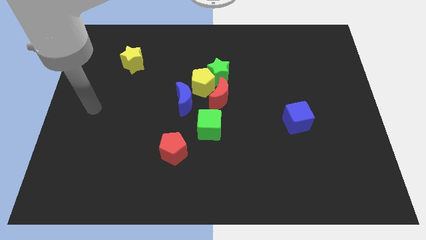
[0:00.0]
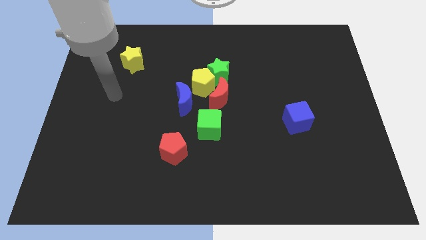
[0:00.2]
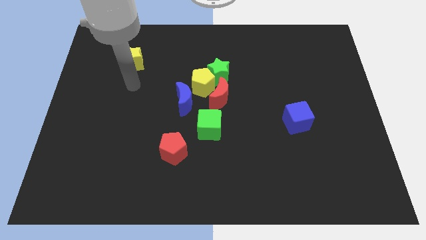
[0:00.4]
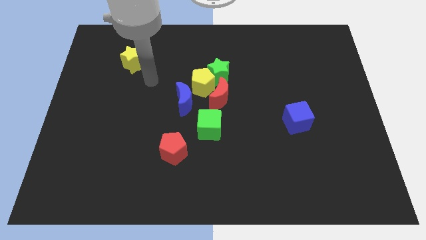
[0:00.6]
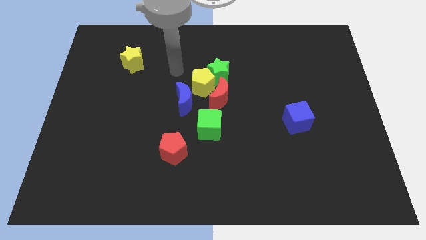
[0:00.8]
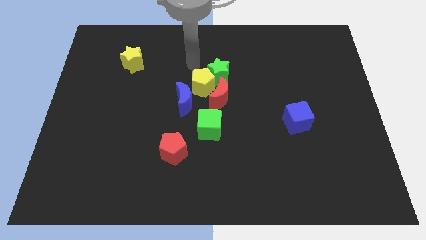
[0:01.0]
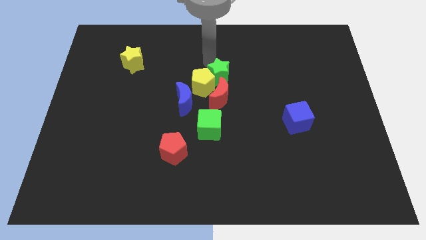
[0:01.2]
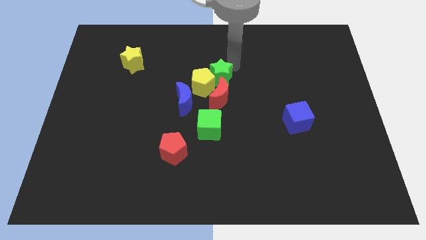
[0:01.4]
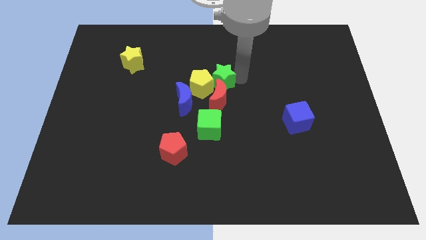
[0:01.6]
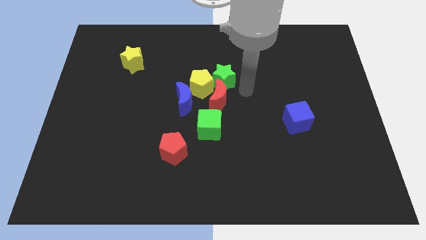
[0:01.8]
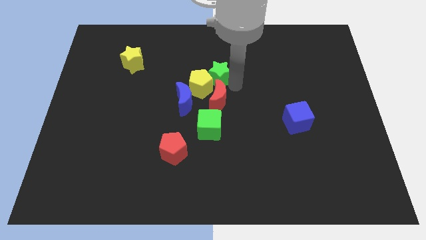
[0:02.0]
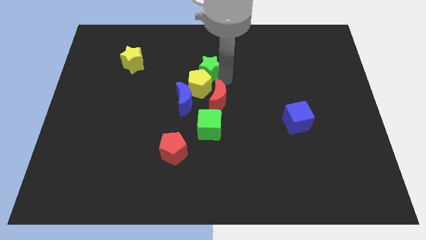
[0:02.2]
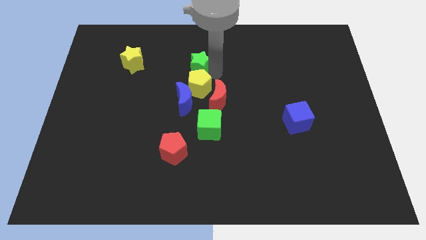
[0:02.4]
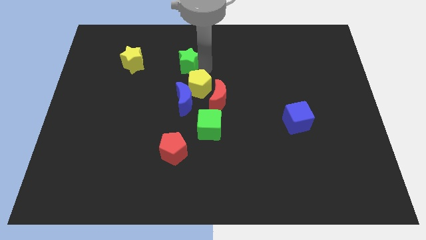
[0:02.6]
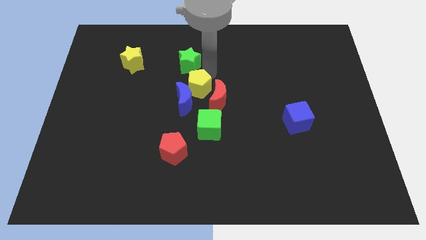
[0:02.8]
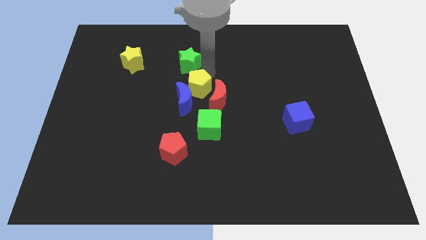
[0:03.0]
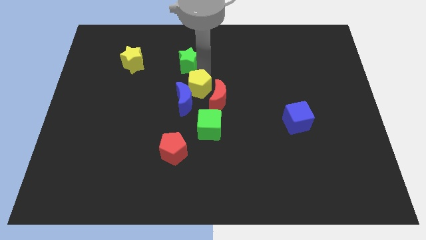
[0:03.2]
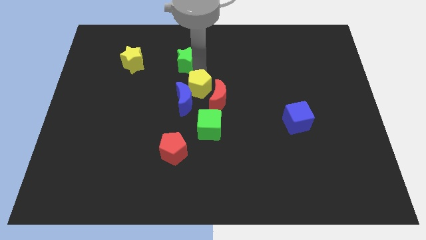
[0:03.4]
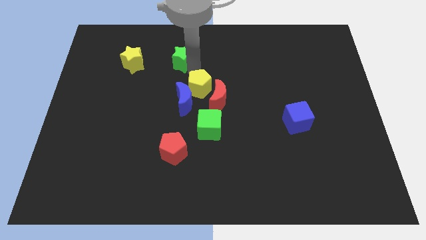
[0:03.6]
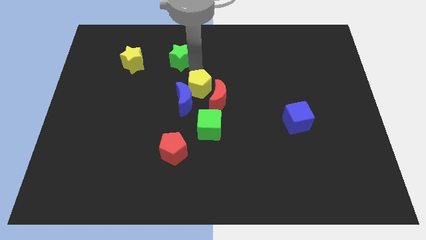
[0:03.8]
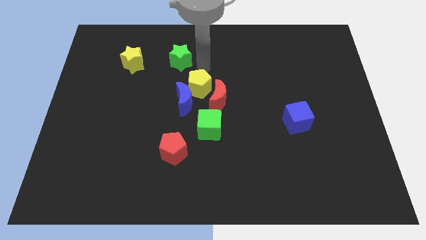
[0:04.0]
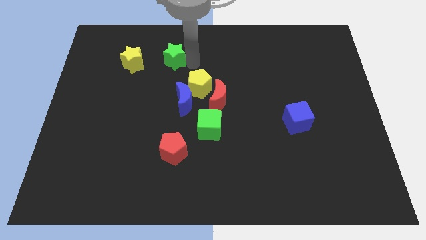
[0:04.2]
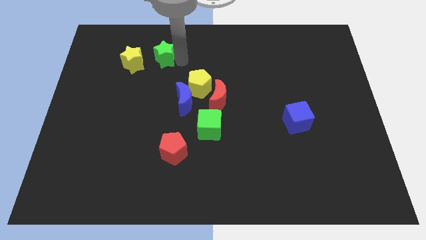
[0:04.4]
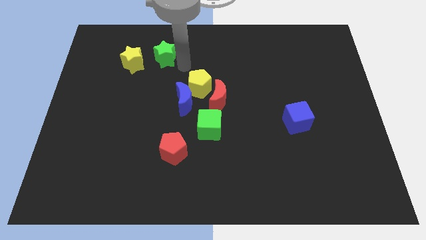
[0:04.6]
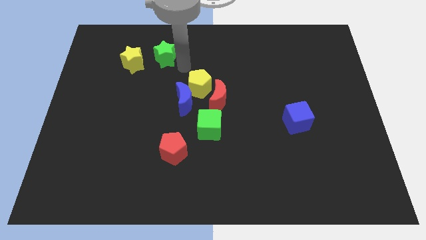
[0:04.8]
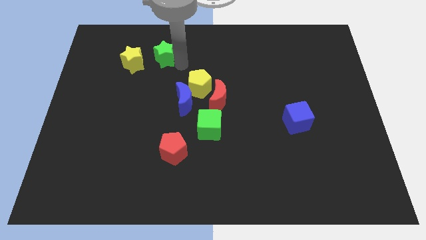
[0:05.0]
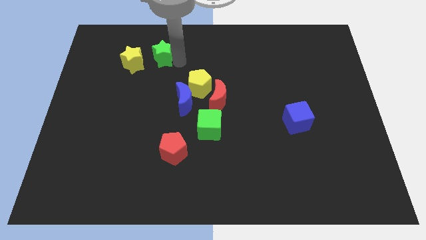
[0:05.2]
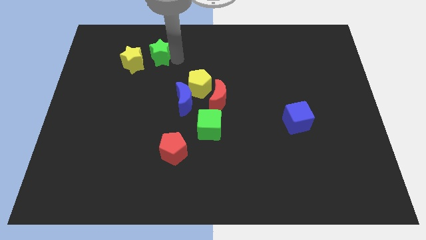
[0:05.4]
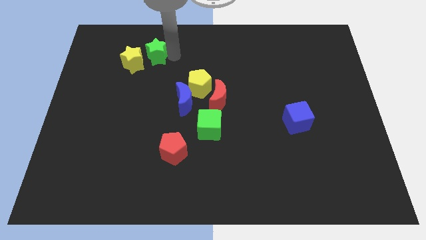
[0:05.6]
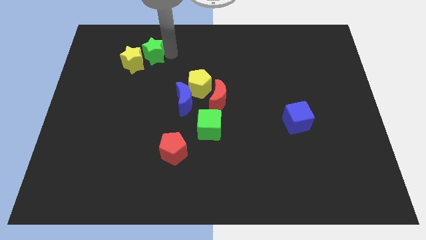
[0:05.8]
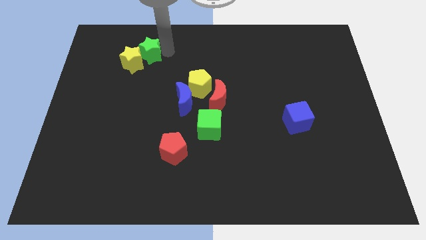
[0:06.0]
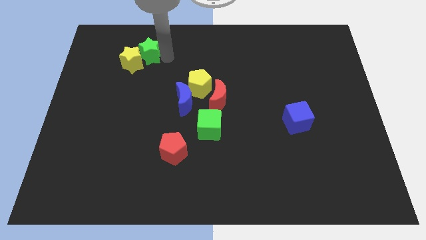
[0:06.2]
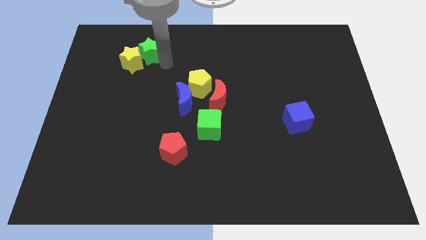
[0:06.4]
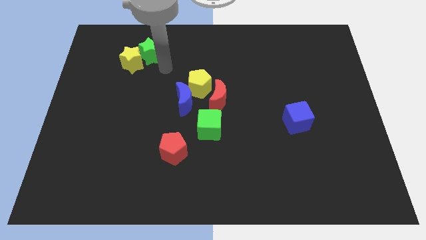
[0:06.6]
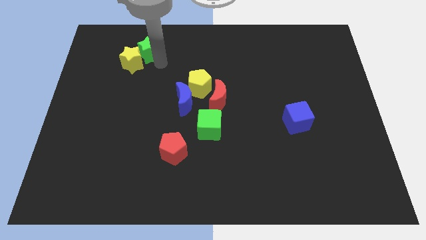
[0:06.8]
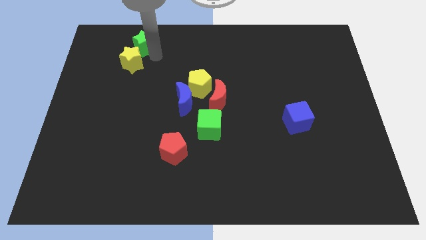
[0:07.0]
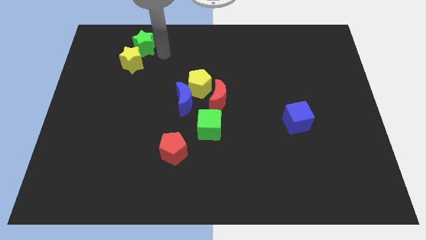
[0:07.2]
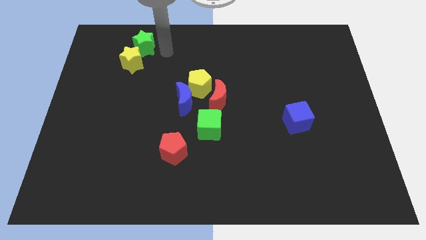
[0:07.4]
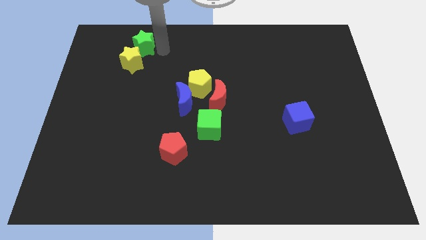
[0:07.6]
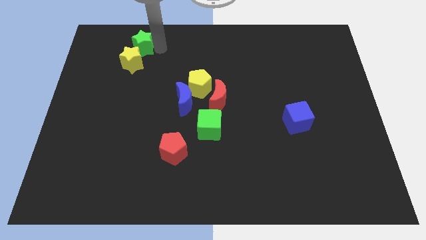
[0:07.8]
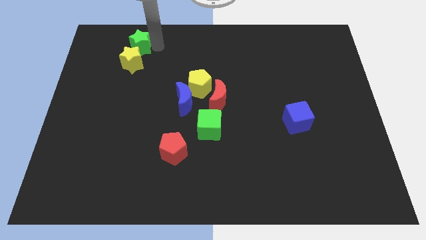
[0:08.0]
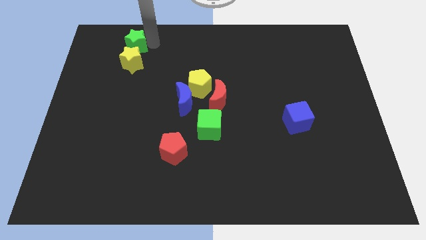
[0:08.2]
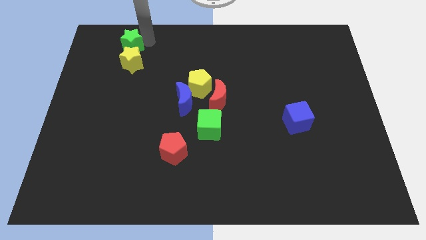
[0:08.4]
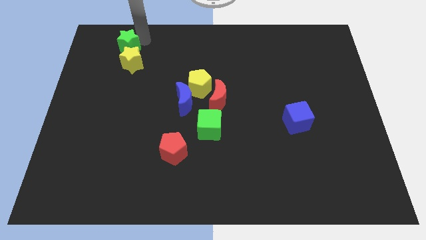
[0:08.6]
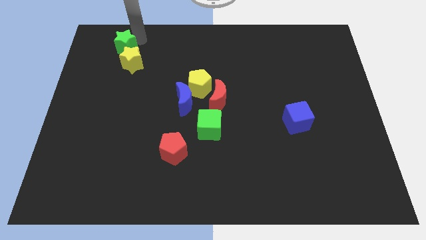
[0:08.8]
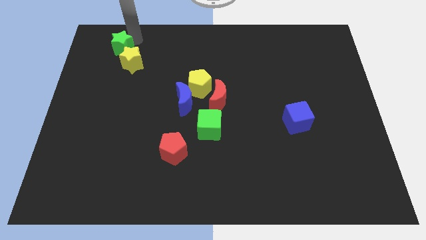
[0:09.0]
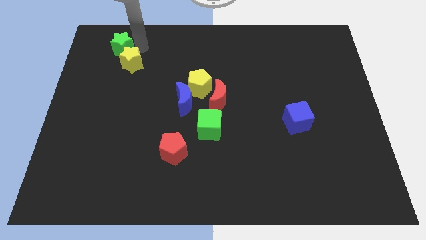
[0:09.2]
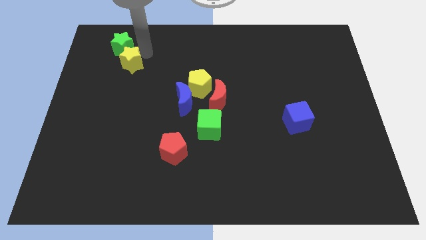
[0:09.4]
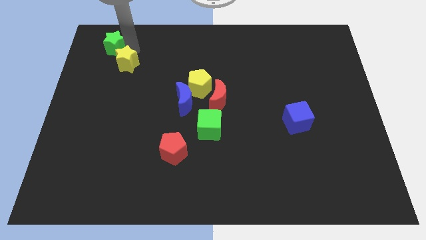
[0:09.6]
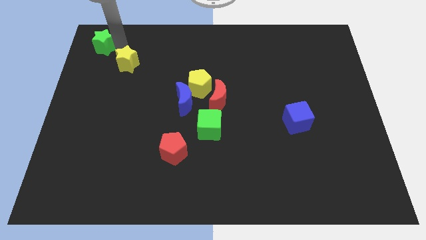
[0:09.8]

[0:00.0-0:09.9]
put the green star to the top left of the board
